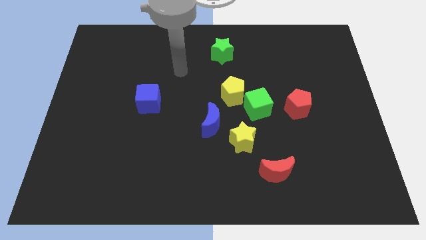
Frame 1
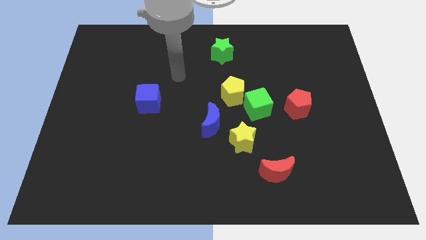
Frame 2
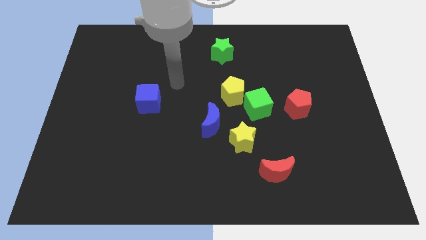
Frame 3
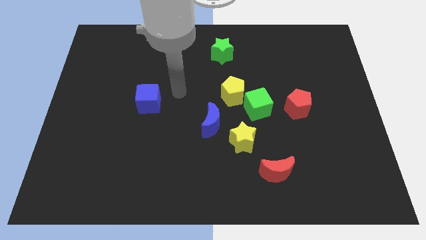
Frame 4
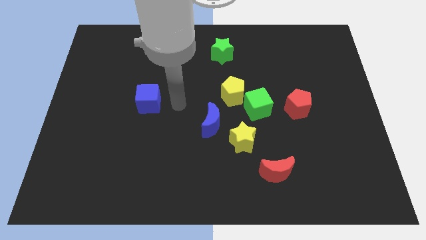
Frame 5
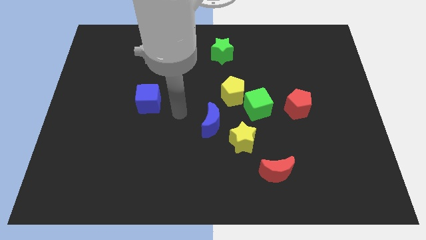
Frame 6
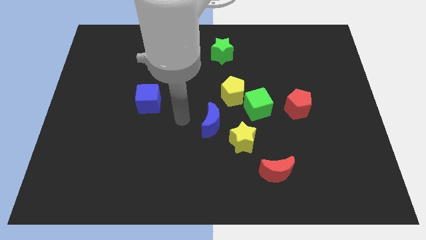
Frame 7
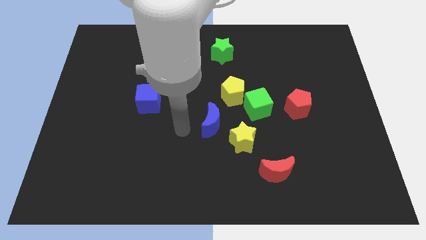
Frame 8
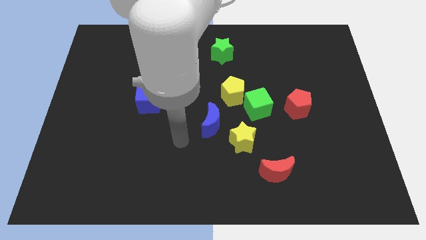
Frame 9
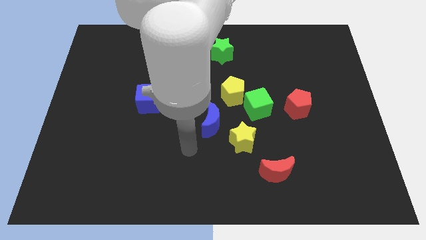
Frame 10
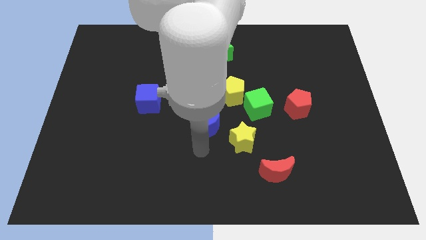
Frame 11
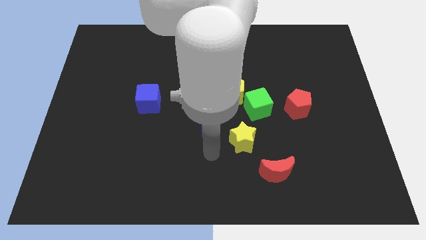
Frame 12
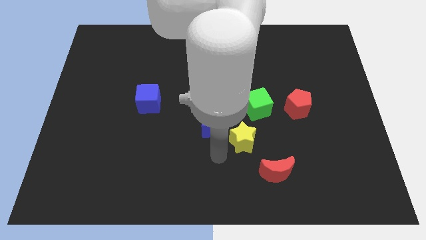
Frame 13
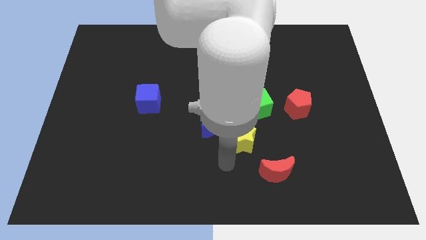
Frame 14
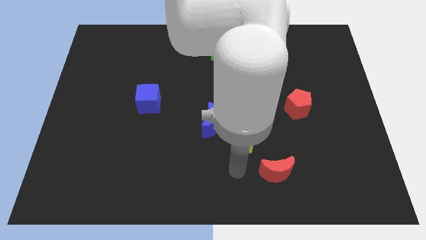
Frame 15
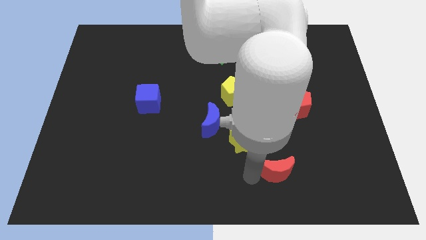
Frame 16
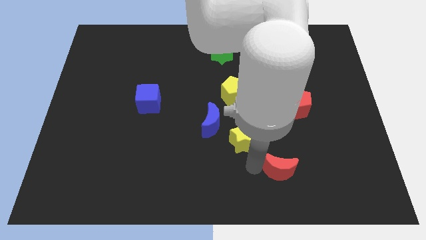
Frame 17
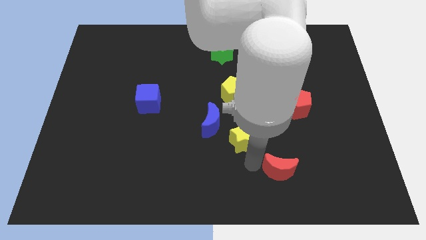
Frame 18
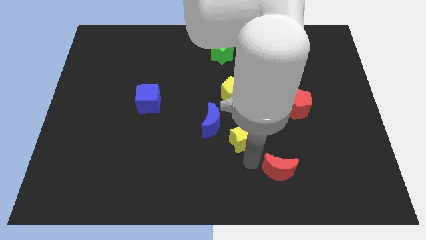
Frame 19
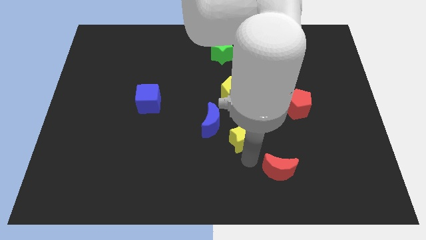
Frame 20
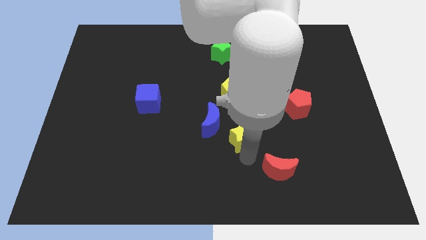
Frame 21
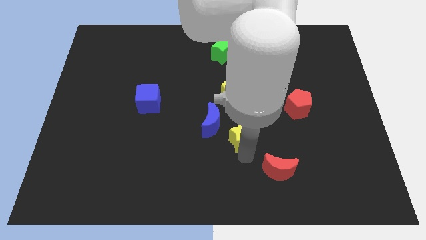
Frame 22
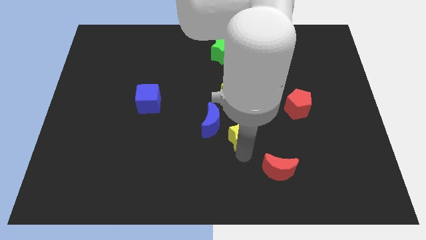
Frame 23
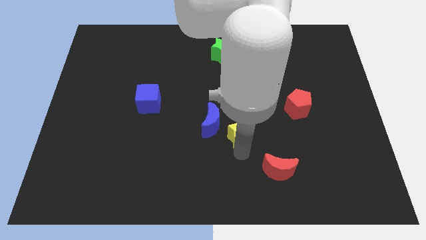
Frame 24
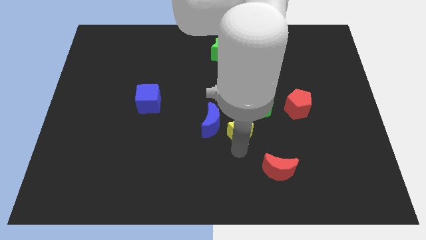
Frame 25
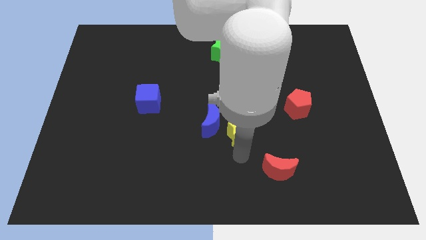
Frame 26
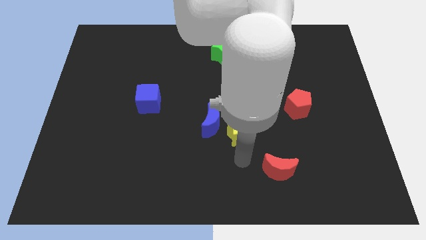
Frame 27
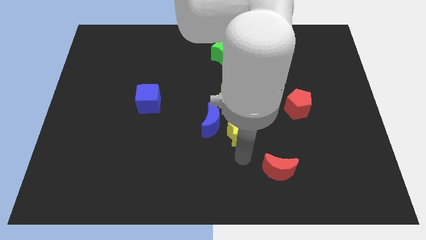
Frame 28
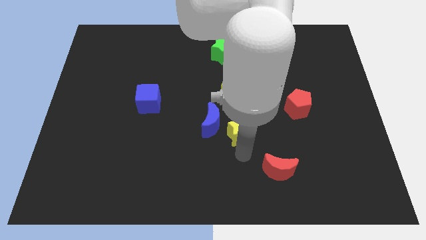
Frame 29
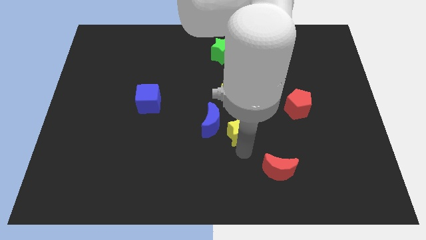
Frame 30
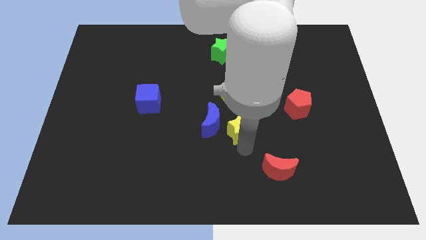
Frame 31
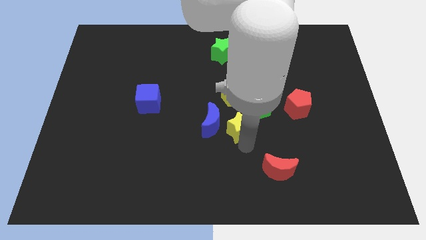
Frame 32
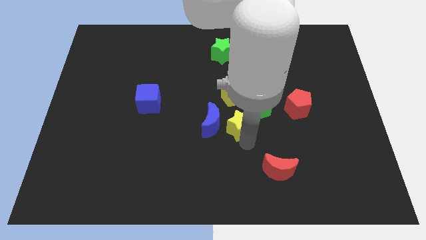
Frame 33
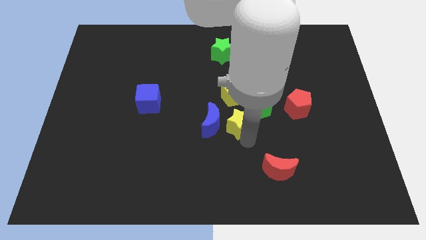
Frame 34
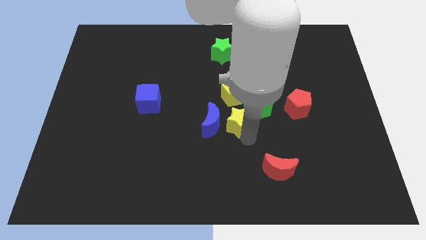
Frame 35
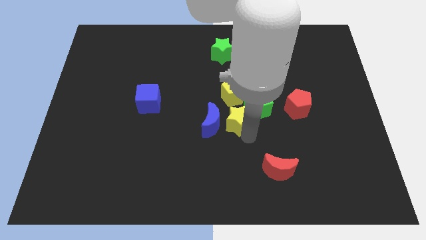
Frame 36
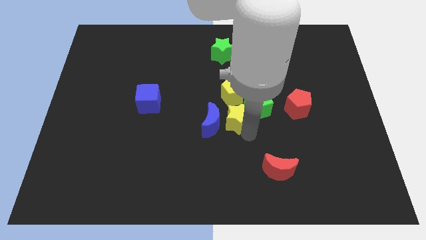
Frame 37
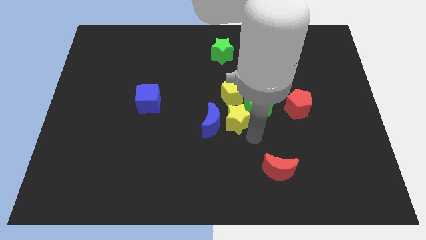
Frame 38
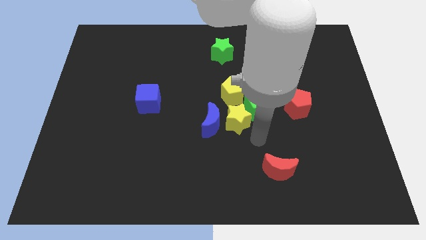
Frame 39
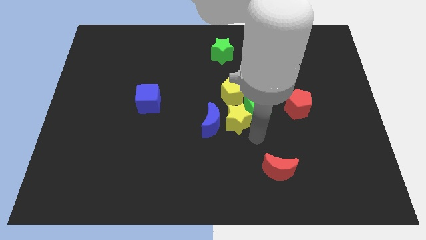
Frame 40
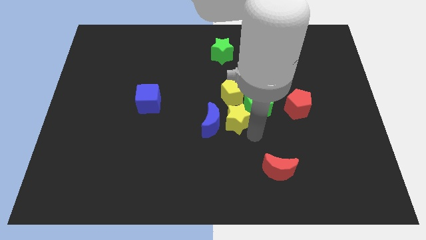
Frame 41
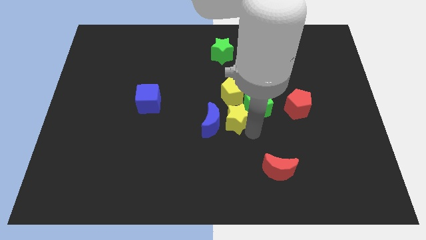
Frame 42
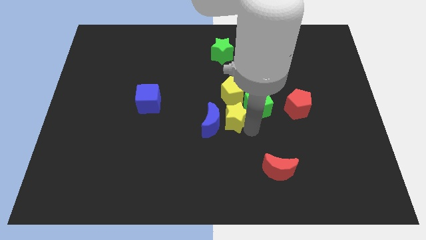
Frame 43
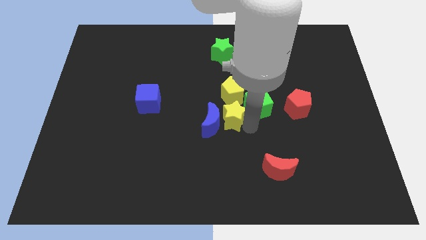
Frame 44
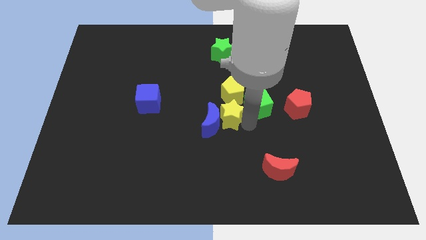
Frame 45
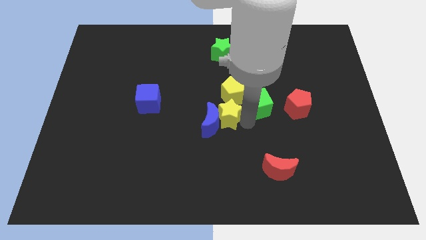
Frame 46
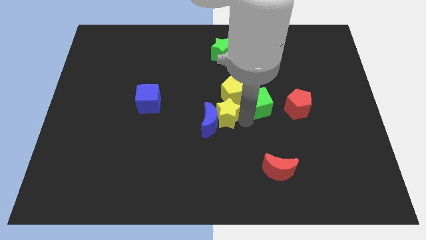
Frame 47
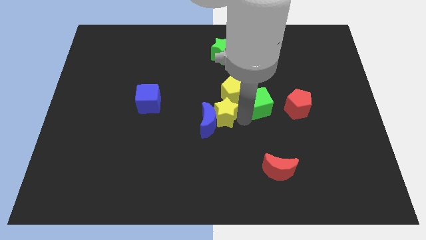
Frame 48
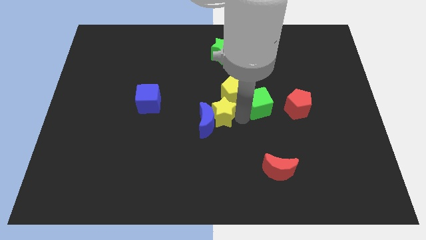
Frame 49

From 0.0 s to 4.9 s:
push the yellow star to the top of the blue moon

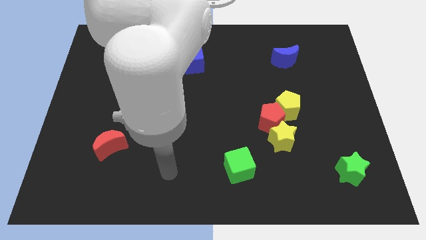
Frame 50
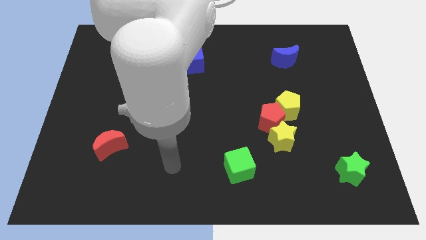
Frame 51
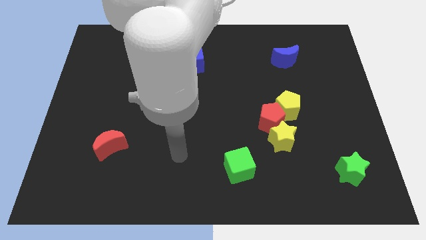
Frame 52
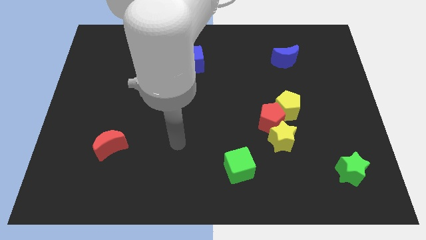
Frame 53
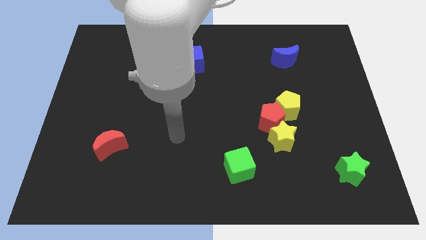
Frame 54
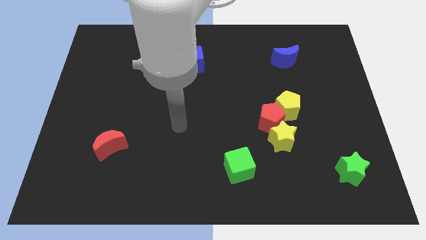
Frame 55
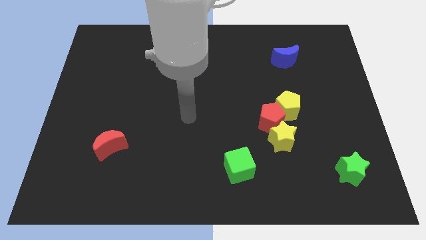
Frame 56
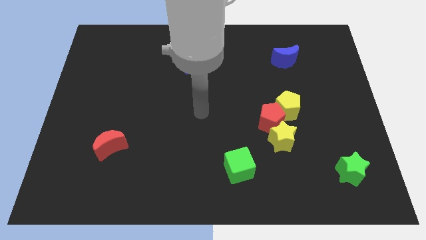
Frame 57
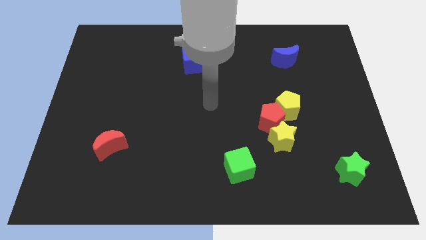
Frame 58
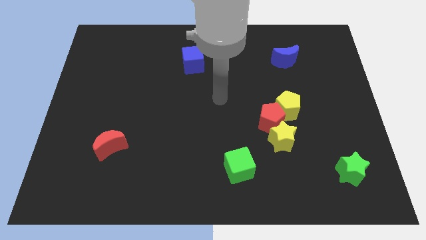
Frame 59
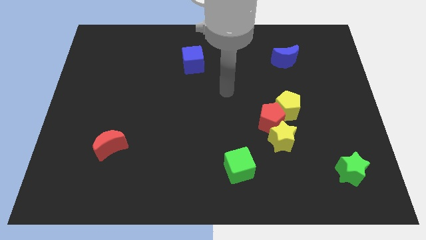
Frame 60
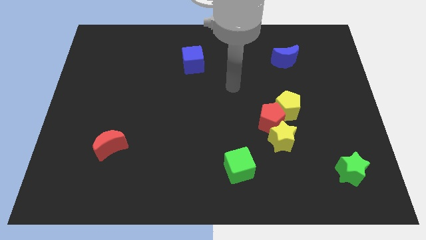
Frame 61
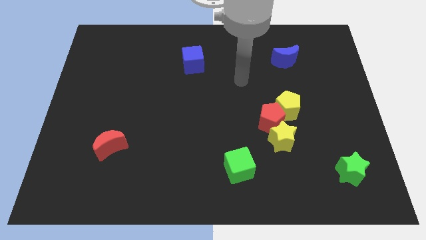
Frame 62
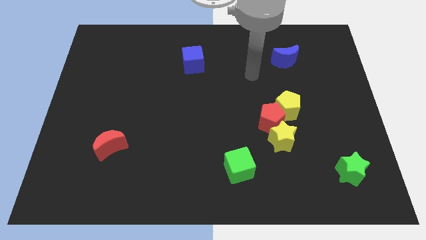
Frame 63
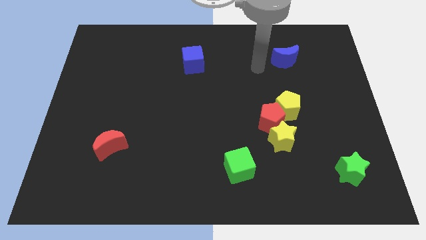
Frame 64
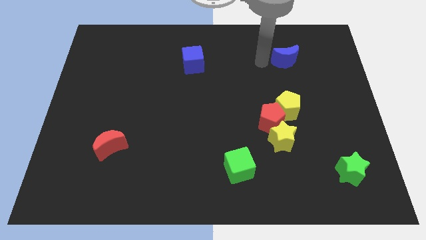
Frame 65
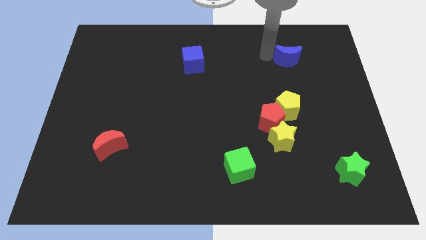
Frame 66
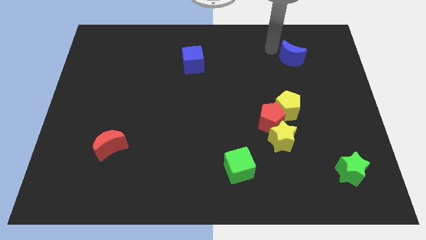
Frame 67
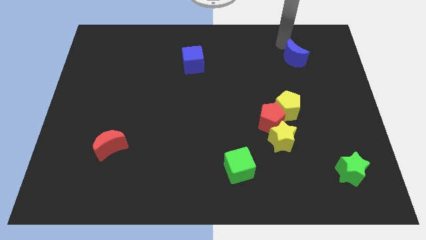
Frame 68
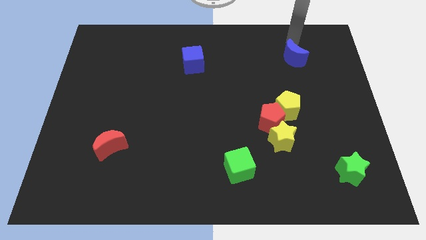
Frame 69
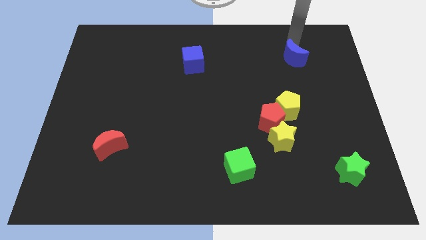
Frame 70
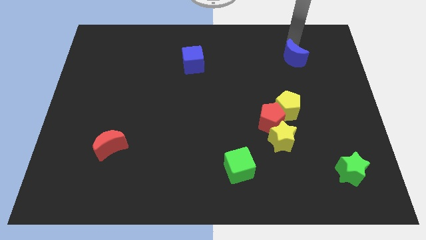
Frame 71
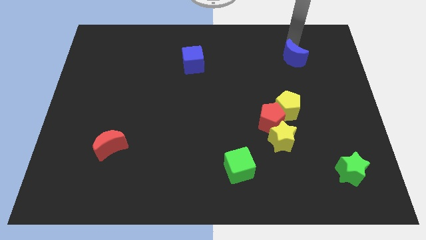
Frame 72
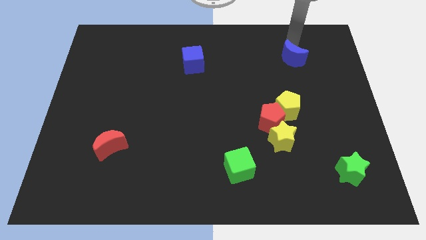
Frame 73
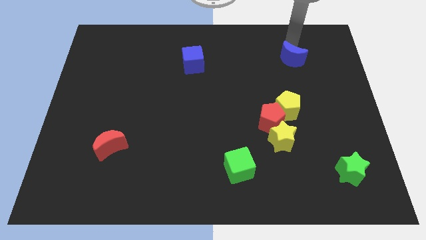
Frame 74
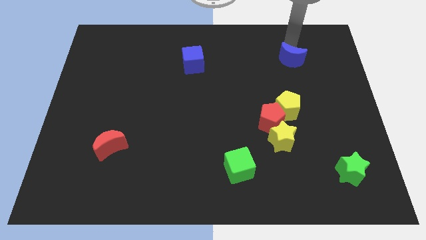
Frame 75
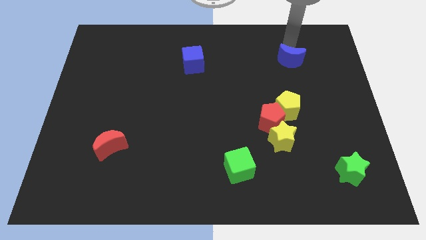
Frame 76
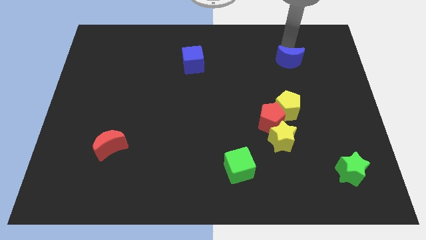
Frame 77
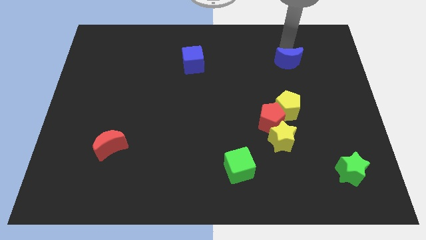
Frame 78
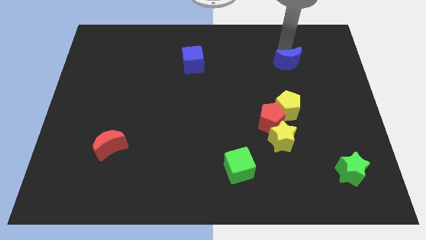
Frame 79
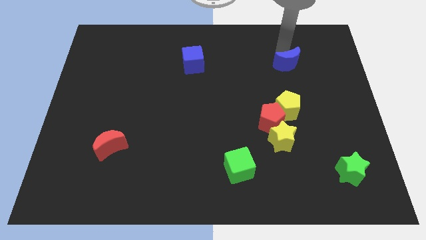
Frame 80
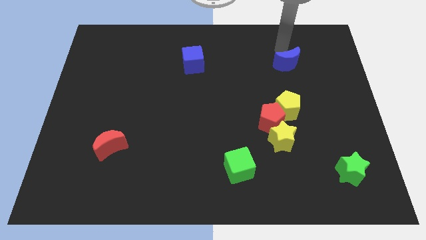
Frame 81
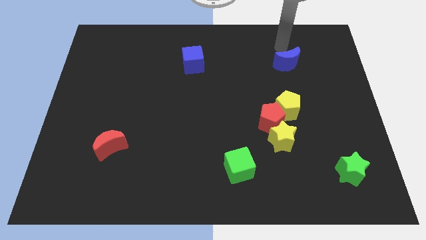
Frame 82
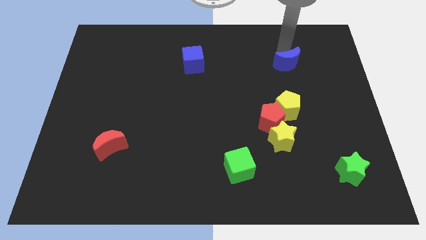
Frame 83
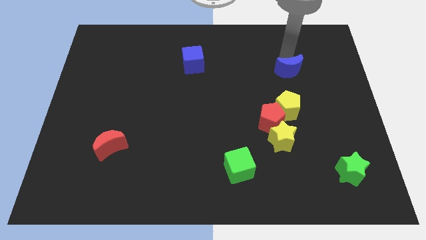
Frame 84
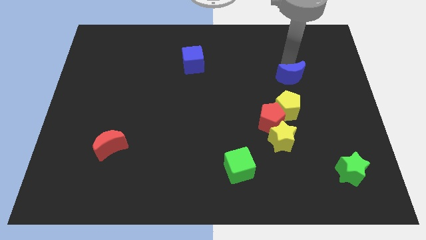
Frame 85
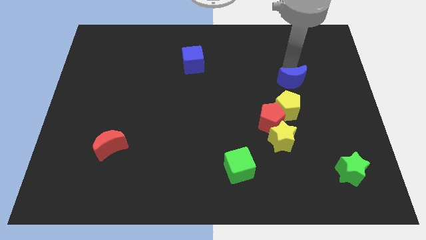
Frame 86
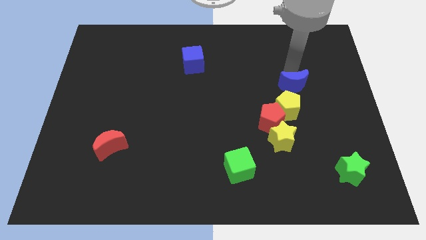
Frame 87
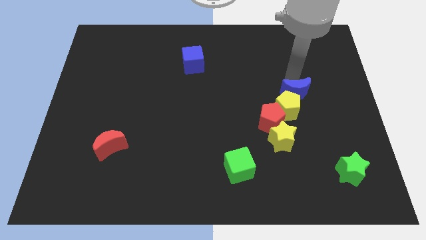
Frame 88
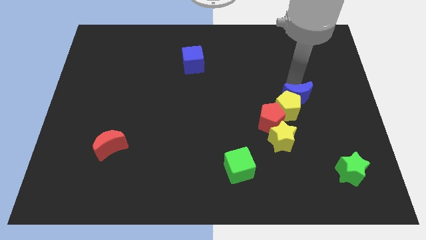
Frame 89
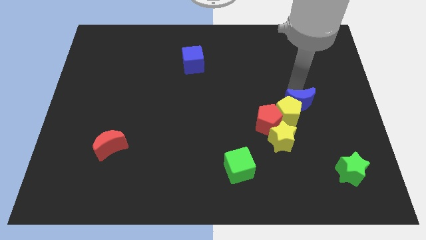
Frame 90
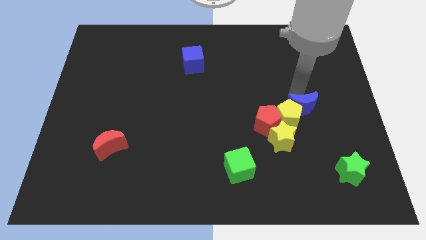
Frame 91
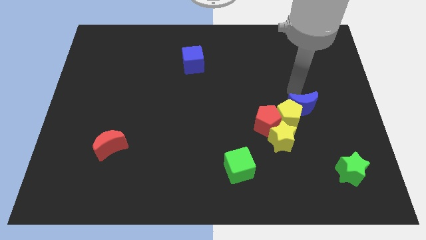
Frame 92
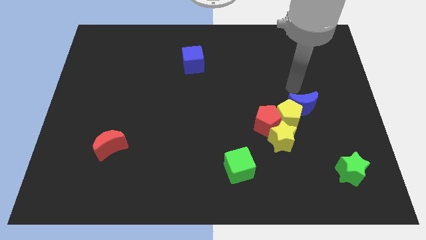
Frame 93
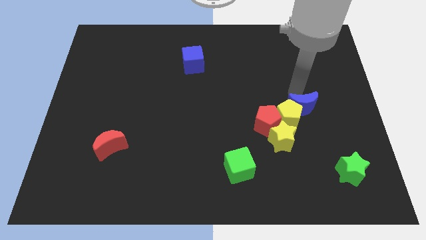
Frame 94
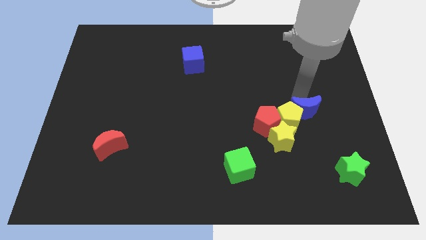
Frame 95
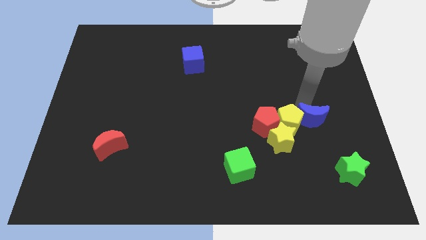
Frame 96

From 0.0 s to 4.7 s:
push the blue moon to the bottom right of the yellow pentagon
